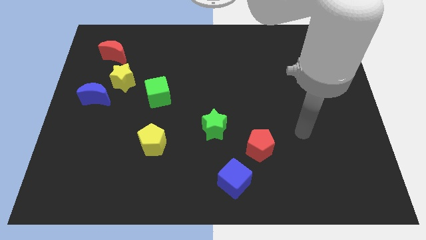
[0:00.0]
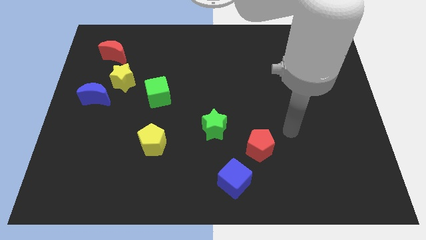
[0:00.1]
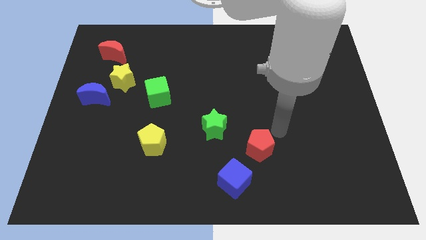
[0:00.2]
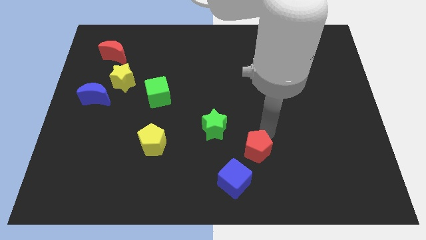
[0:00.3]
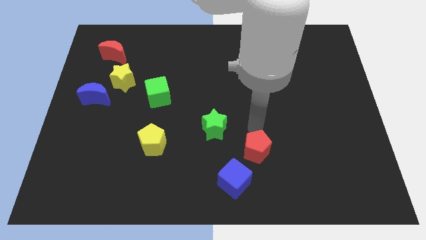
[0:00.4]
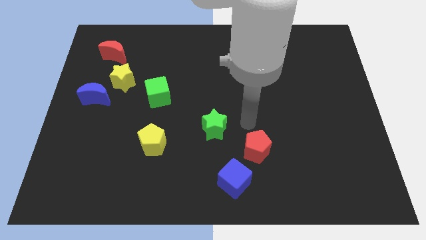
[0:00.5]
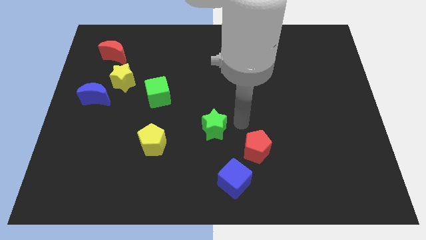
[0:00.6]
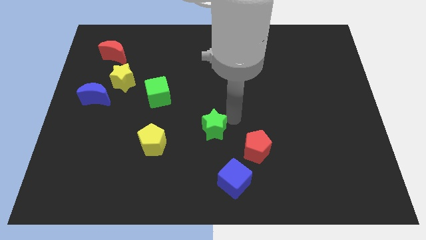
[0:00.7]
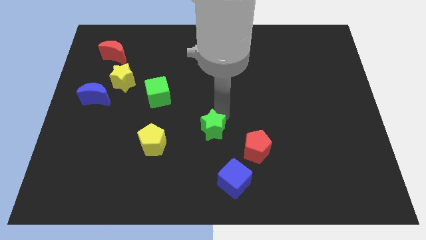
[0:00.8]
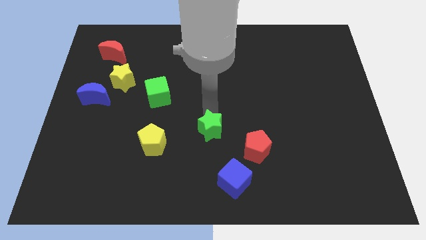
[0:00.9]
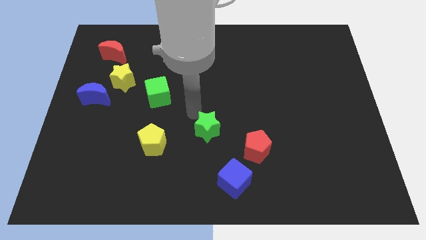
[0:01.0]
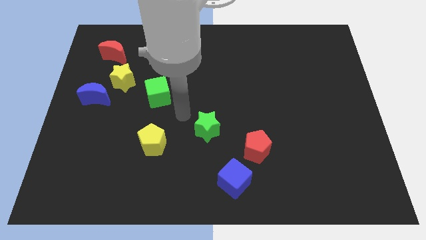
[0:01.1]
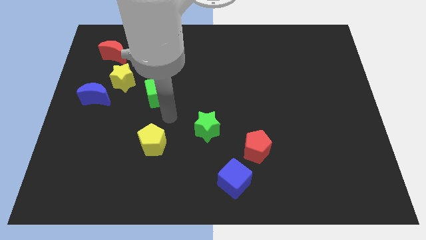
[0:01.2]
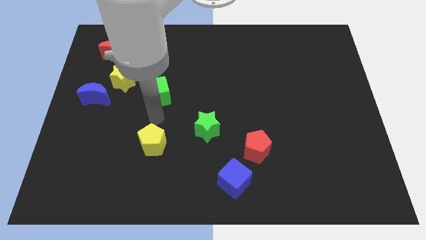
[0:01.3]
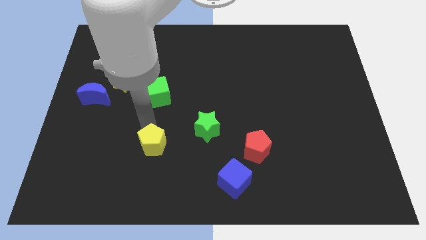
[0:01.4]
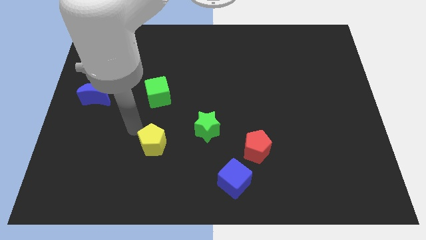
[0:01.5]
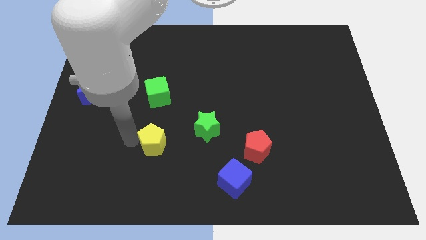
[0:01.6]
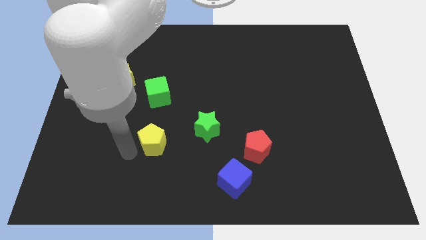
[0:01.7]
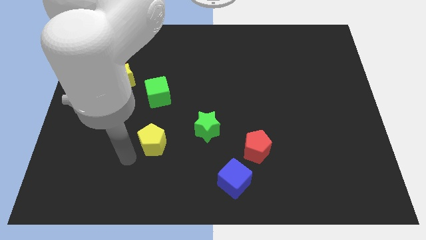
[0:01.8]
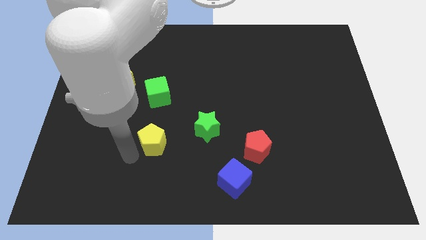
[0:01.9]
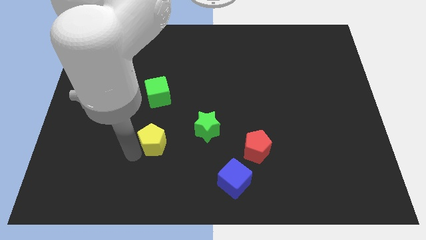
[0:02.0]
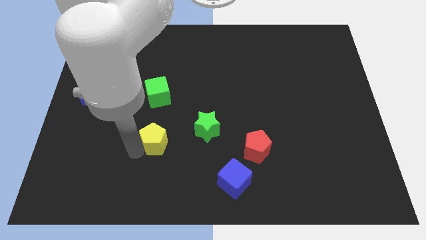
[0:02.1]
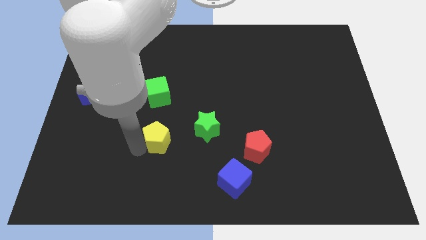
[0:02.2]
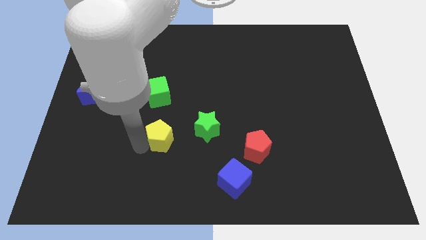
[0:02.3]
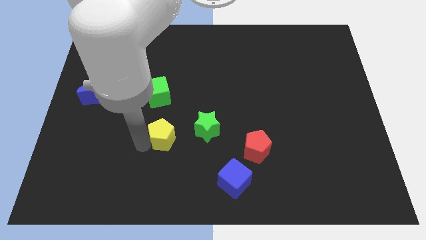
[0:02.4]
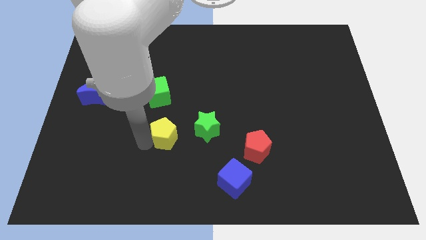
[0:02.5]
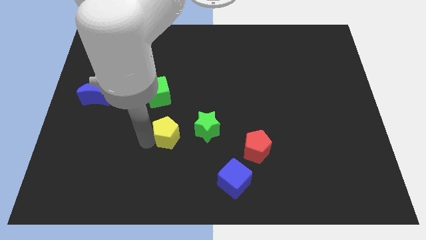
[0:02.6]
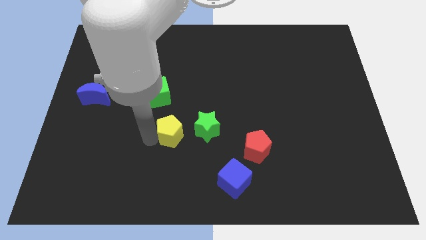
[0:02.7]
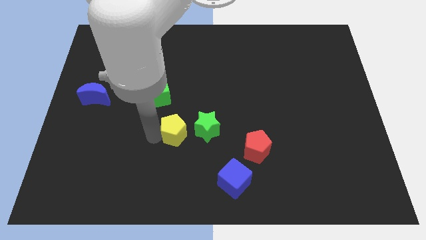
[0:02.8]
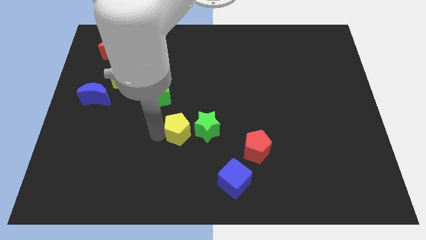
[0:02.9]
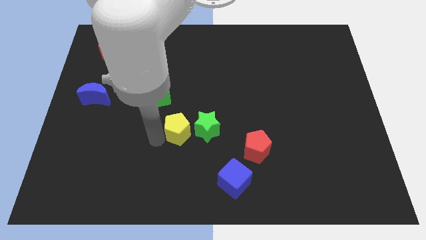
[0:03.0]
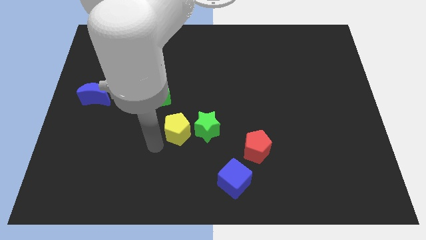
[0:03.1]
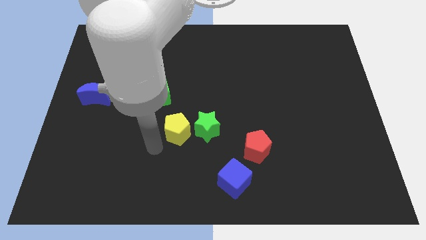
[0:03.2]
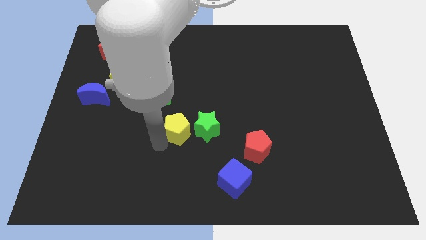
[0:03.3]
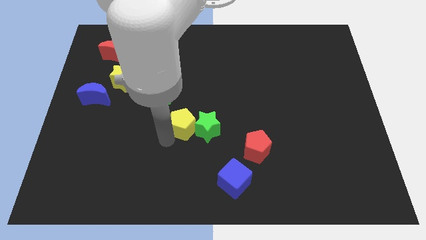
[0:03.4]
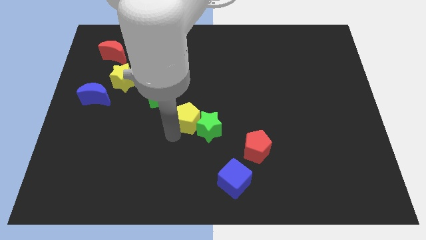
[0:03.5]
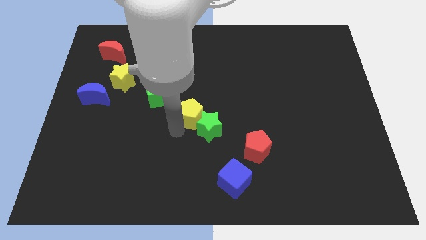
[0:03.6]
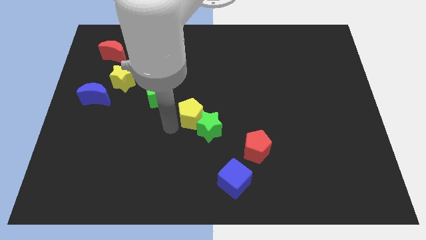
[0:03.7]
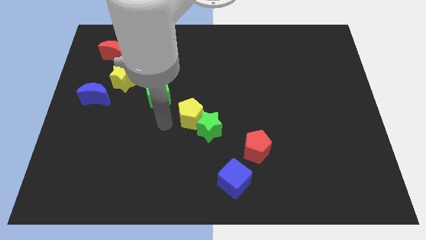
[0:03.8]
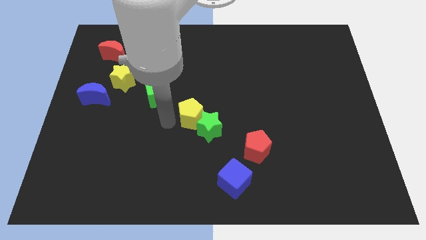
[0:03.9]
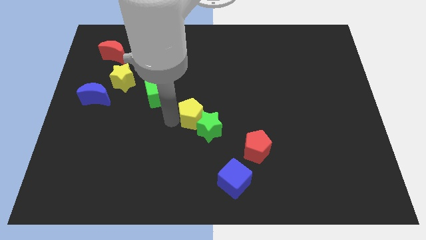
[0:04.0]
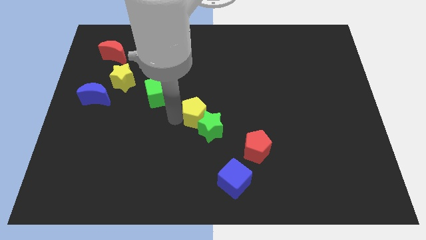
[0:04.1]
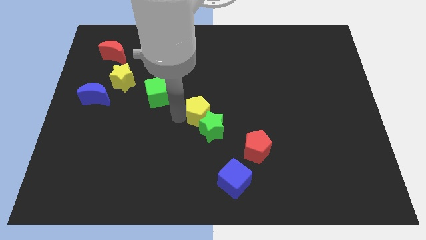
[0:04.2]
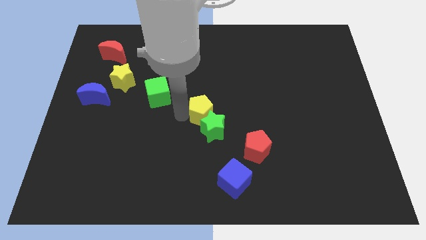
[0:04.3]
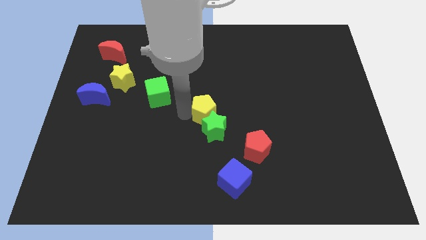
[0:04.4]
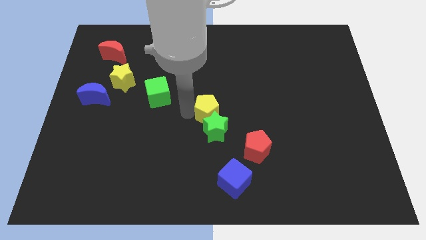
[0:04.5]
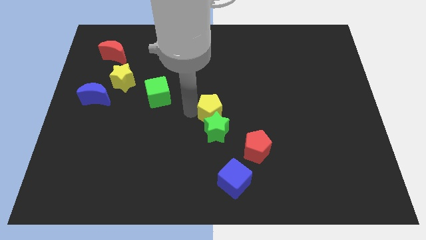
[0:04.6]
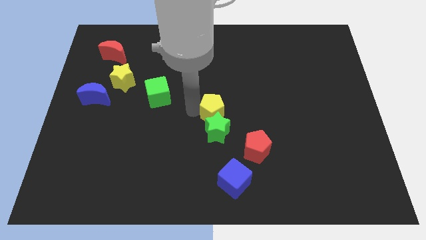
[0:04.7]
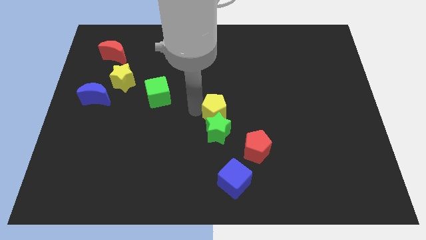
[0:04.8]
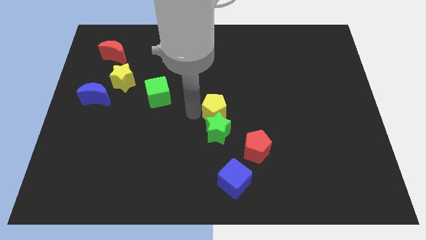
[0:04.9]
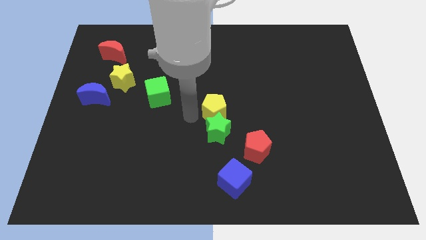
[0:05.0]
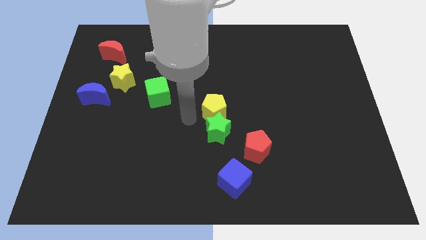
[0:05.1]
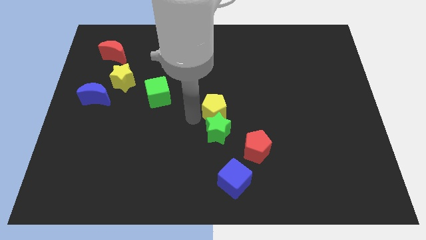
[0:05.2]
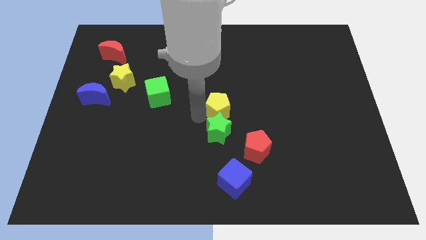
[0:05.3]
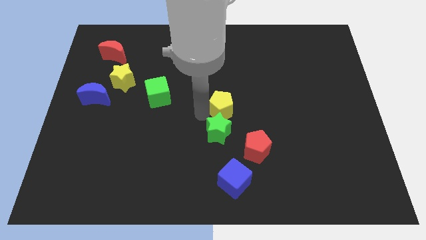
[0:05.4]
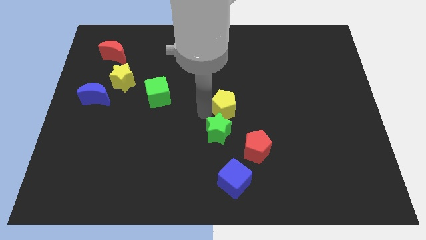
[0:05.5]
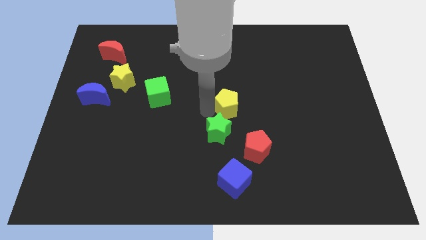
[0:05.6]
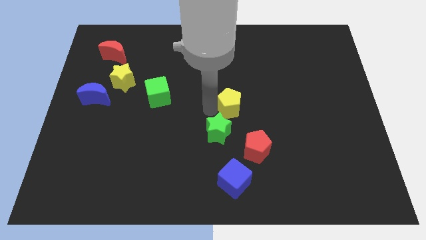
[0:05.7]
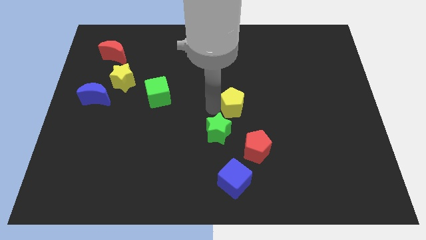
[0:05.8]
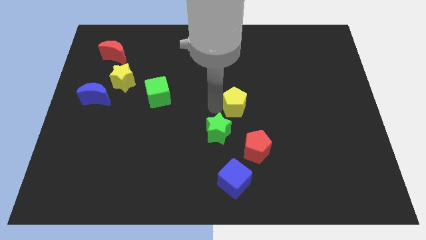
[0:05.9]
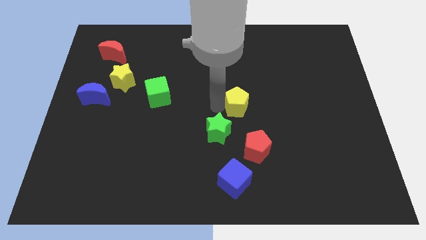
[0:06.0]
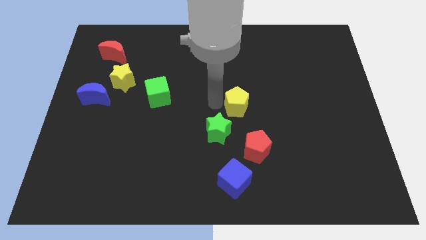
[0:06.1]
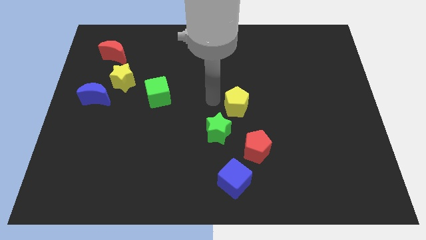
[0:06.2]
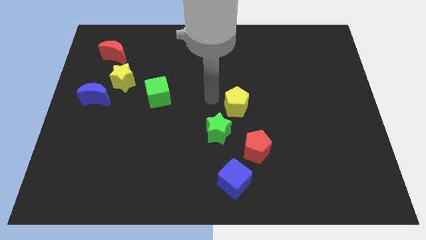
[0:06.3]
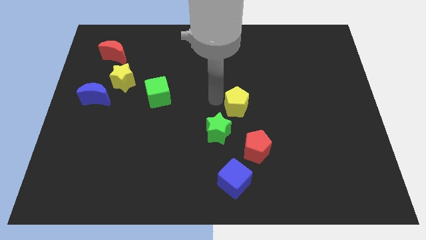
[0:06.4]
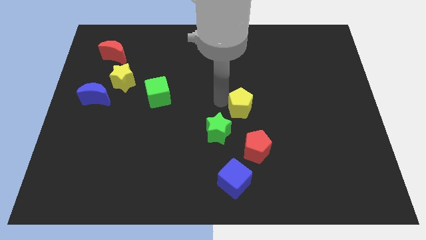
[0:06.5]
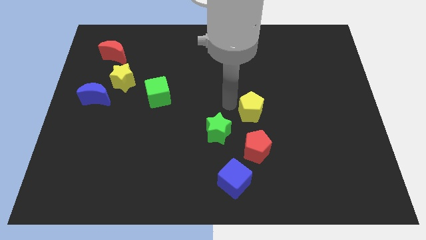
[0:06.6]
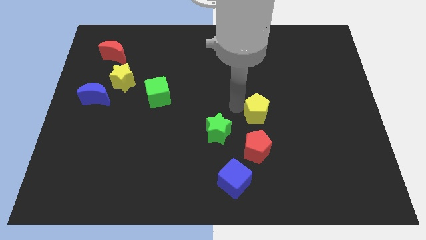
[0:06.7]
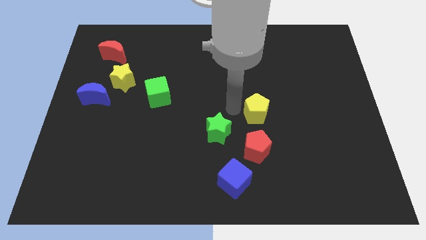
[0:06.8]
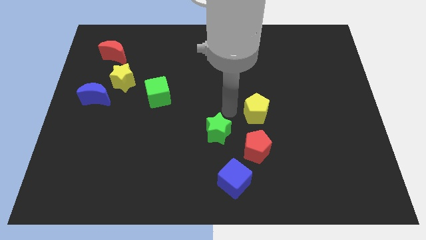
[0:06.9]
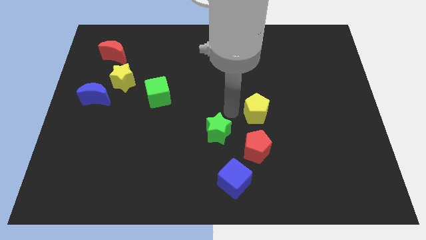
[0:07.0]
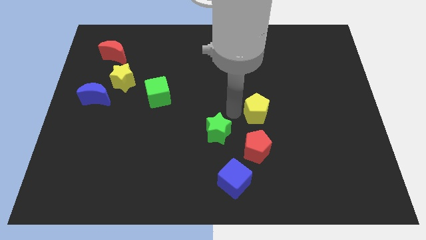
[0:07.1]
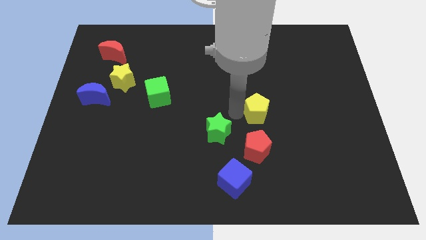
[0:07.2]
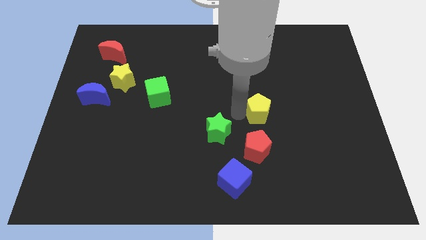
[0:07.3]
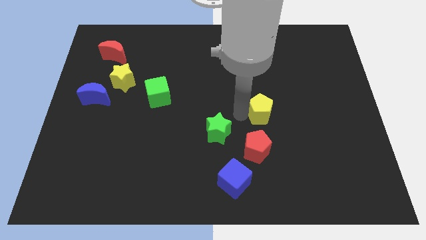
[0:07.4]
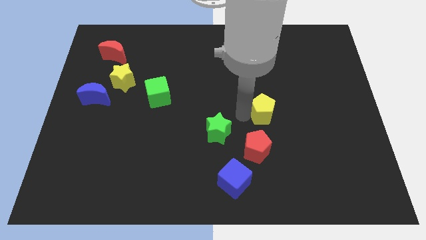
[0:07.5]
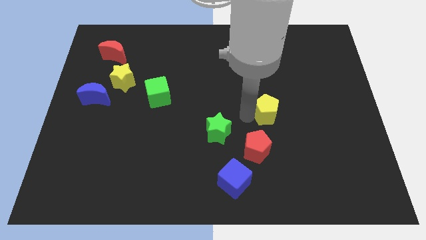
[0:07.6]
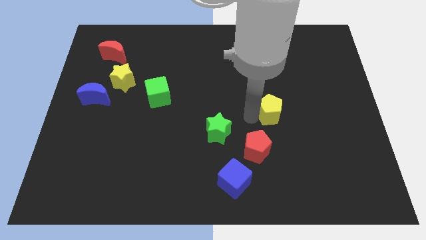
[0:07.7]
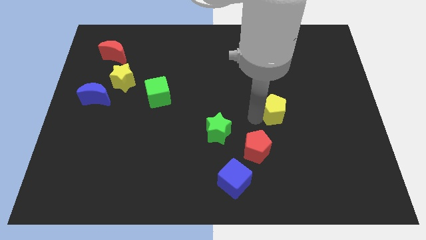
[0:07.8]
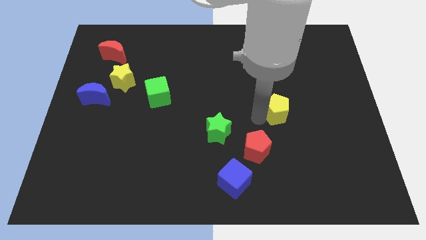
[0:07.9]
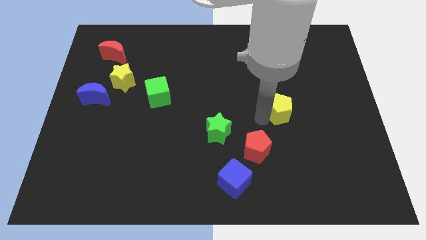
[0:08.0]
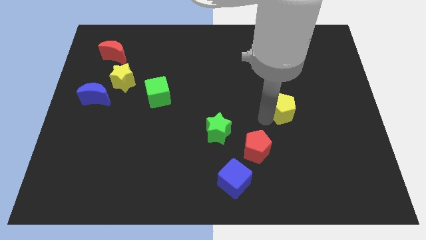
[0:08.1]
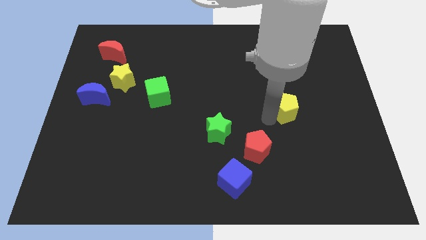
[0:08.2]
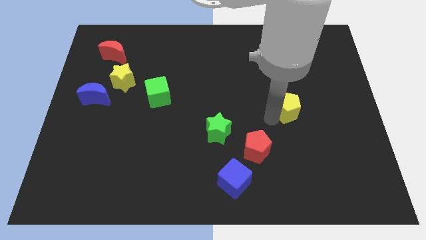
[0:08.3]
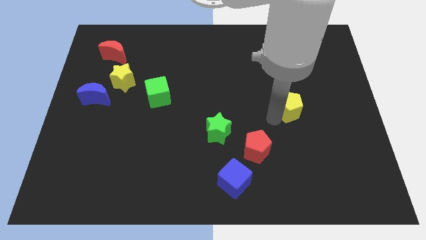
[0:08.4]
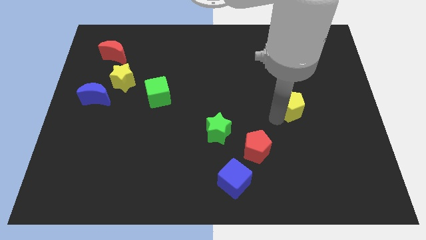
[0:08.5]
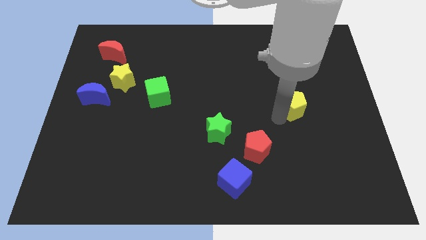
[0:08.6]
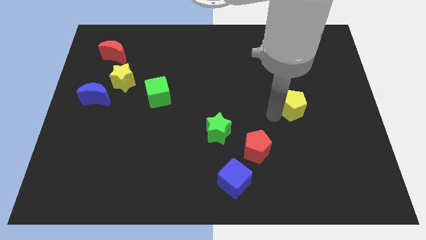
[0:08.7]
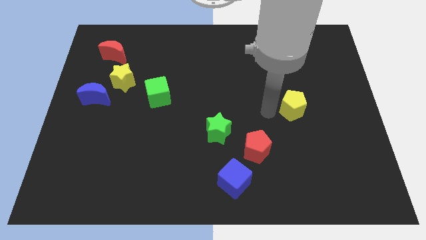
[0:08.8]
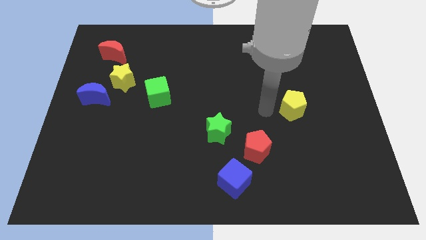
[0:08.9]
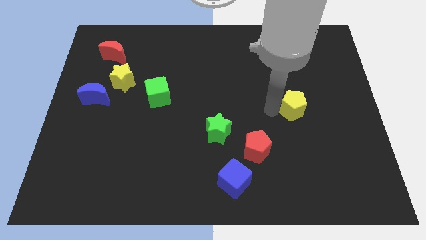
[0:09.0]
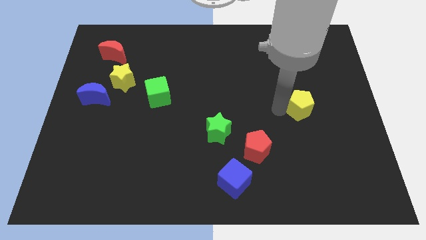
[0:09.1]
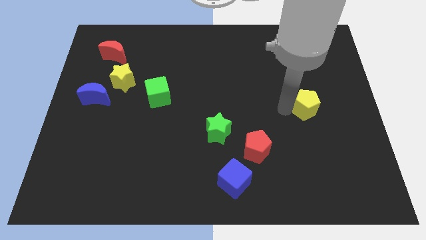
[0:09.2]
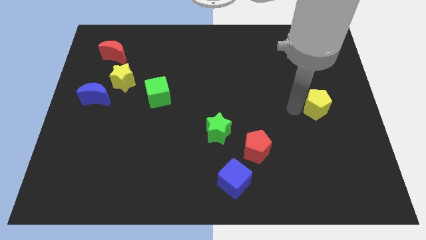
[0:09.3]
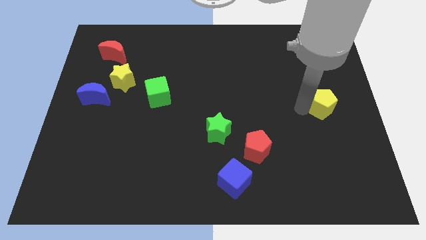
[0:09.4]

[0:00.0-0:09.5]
slide the yellow pentagon to the right side
